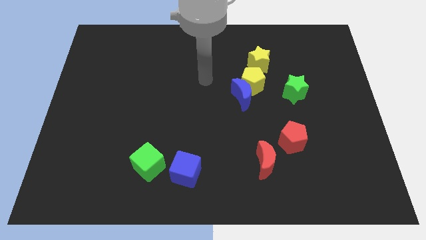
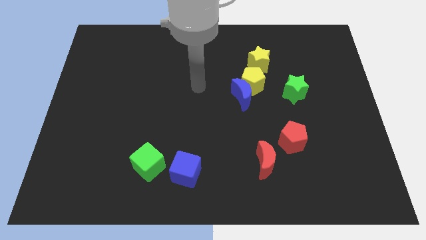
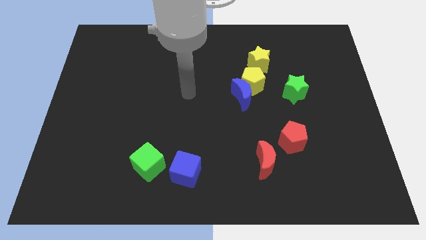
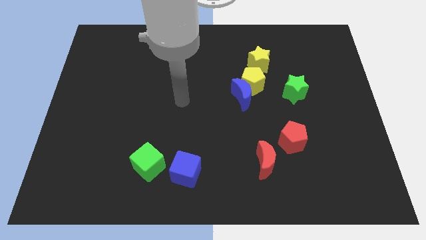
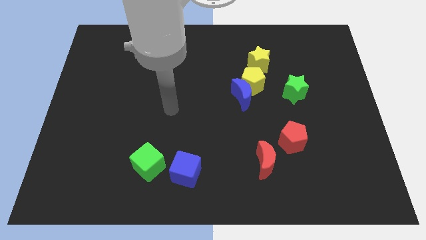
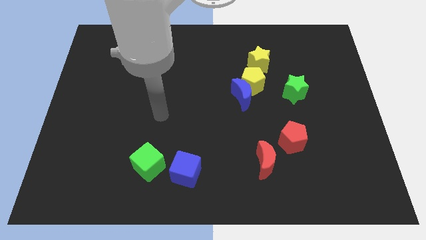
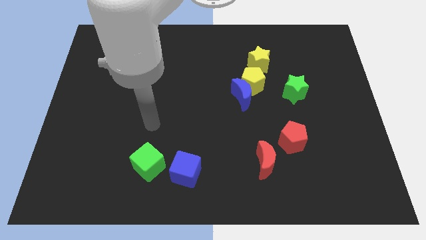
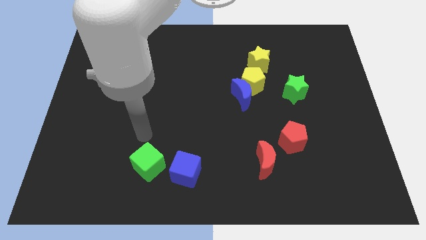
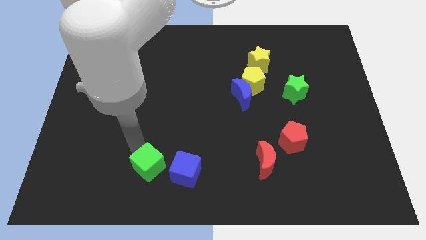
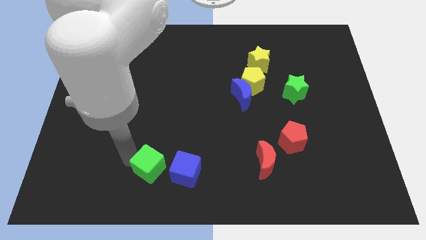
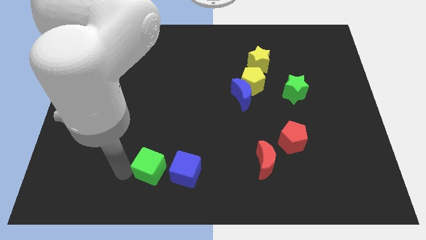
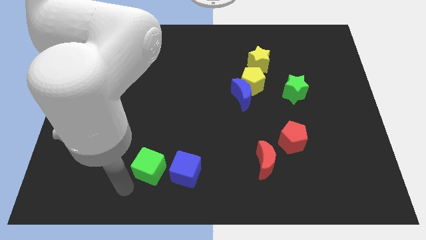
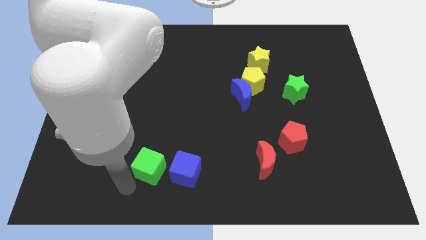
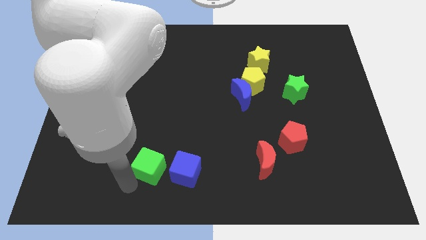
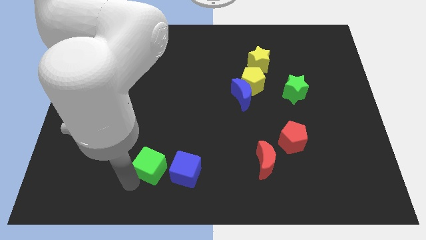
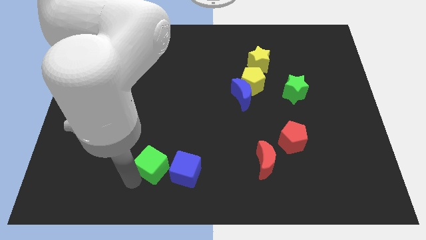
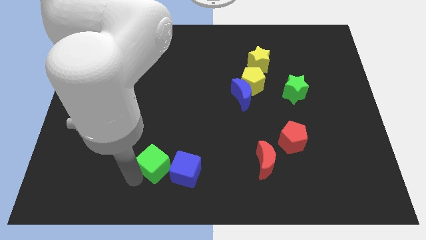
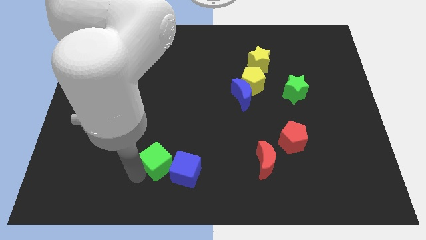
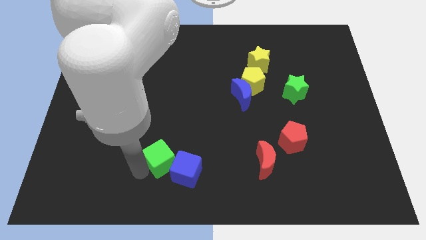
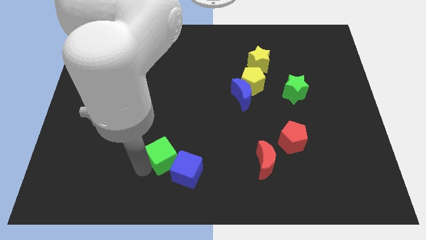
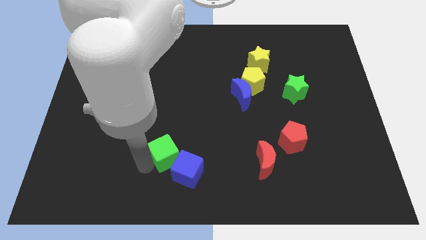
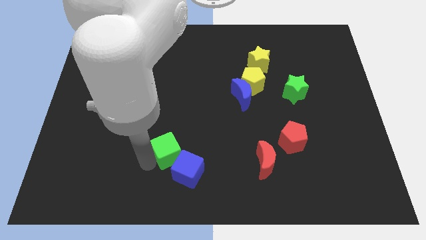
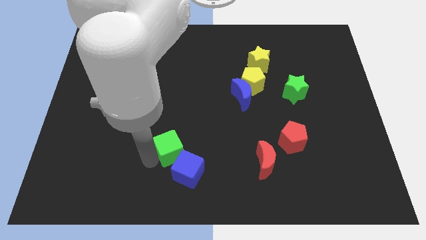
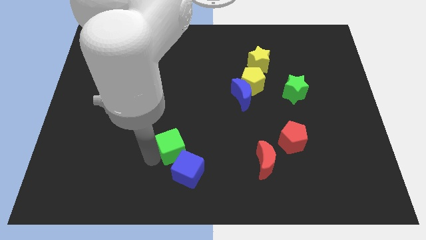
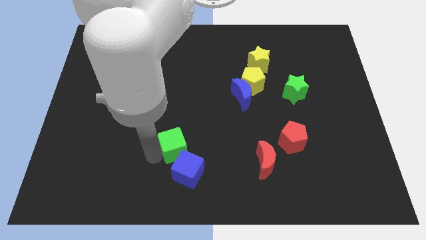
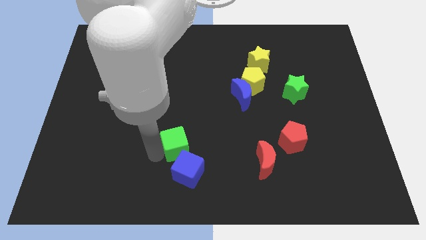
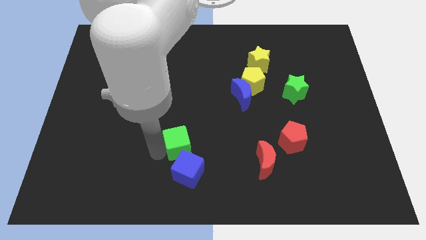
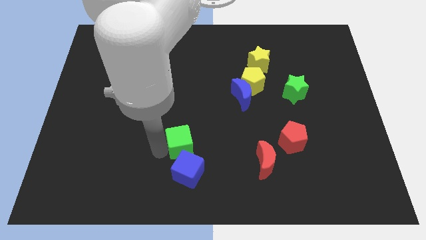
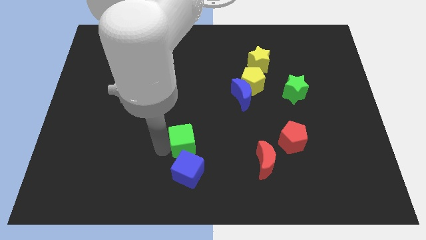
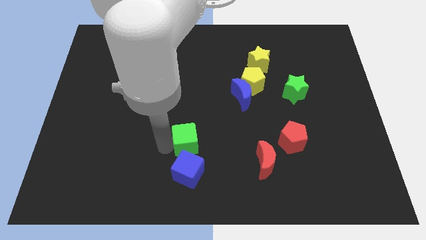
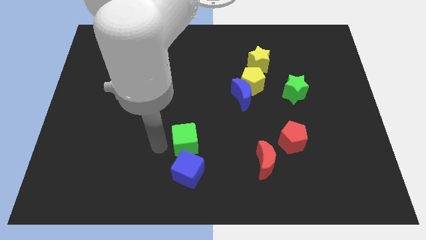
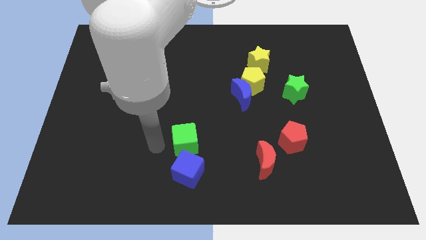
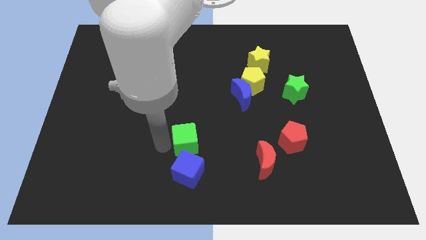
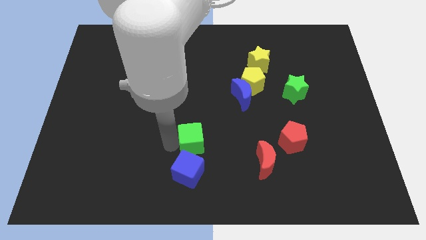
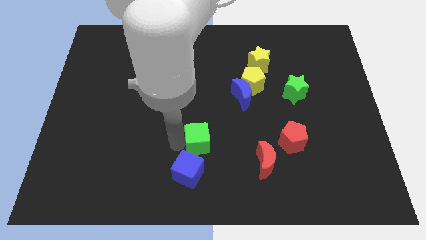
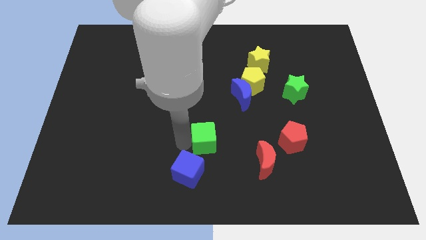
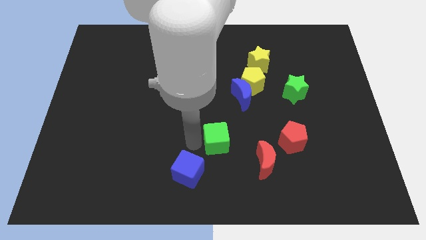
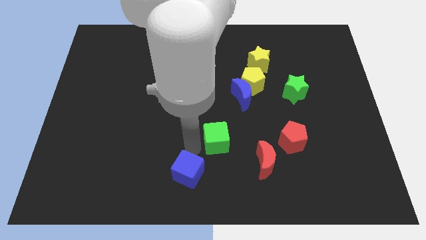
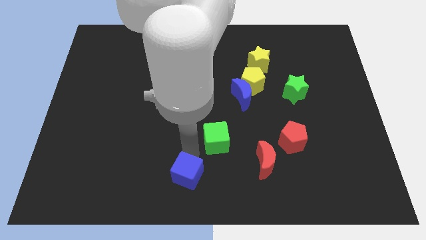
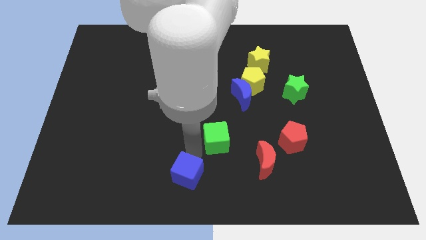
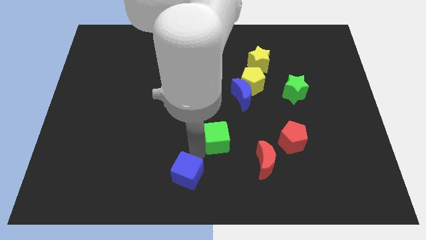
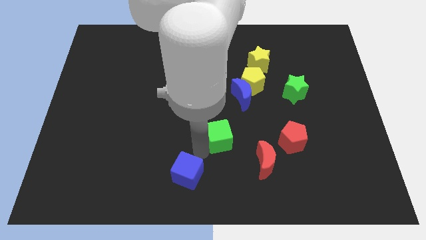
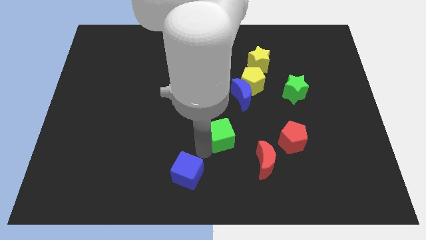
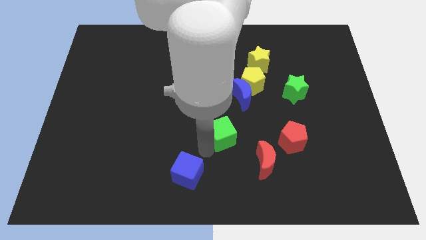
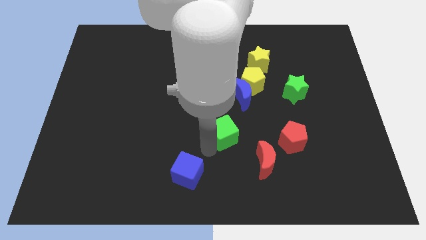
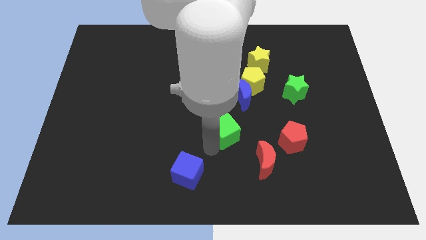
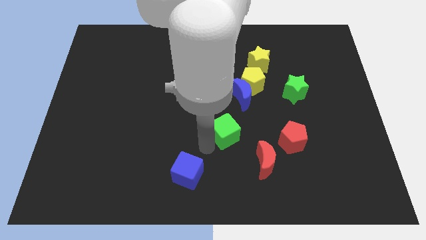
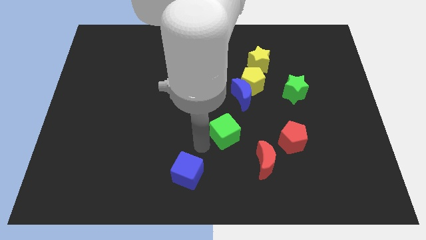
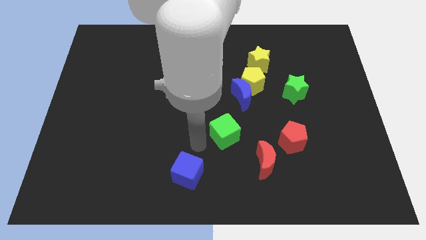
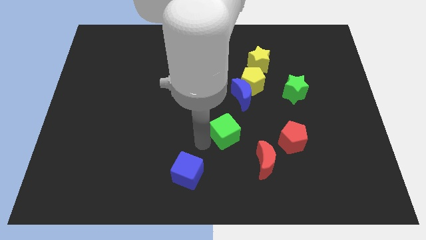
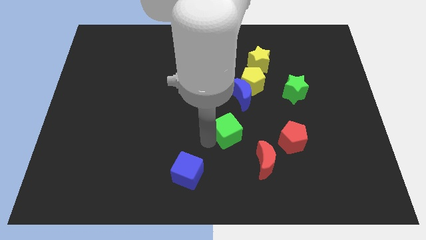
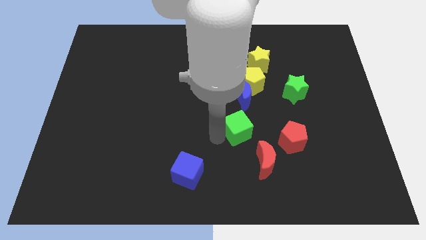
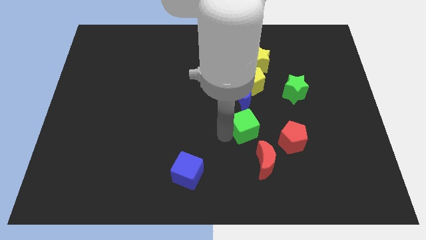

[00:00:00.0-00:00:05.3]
push the green cube to the top of the red moon

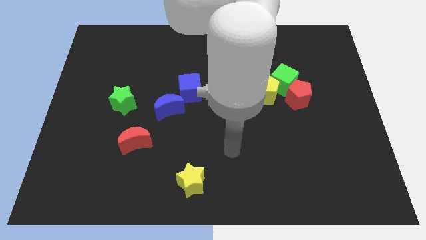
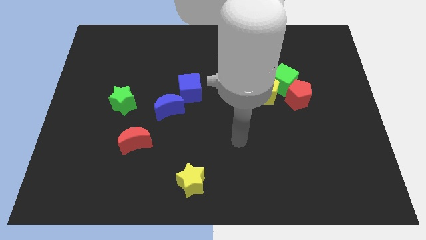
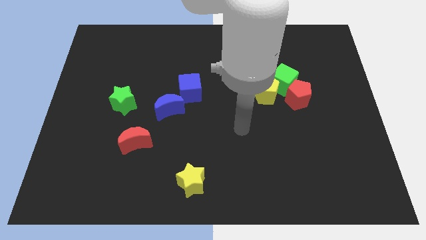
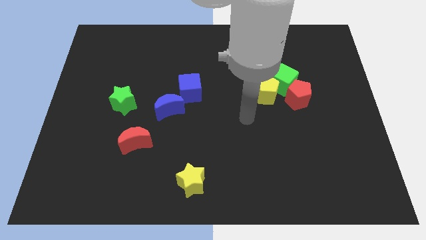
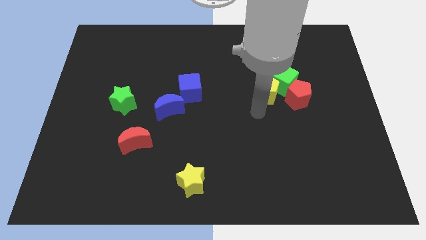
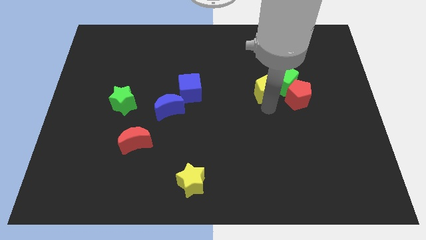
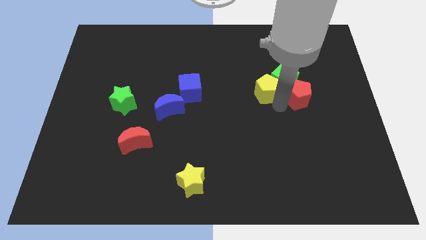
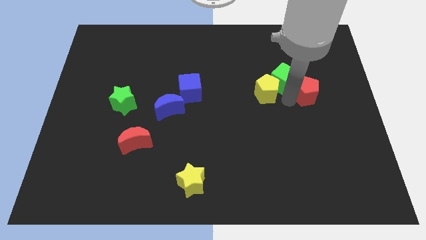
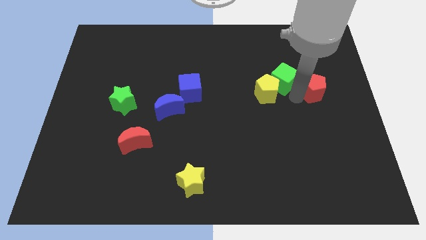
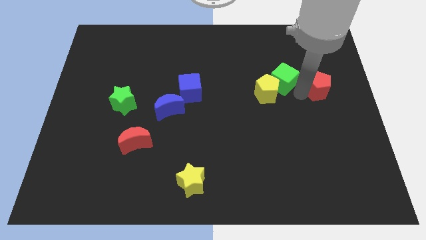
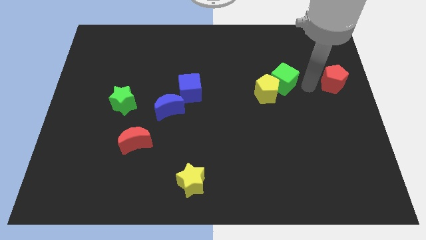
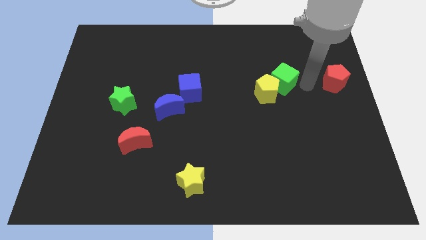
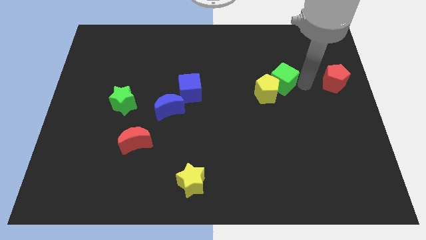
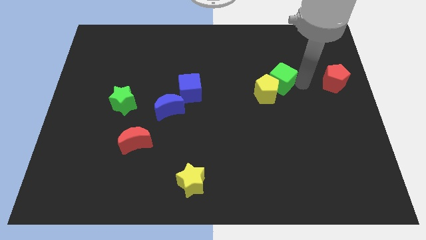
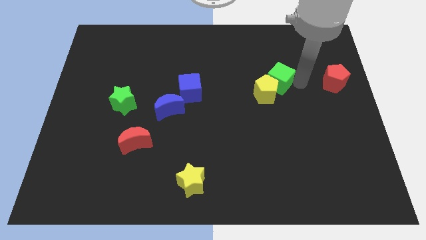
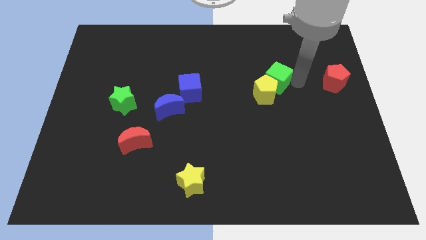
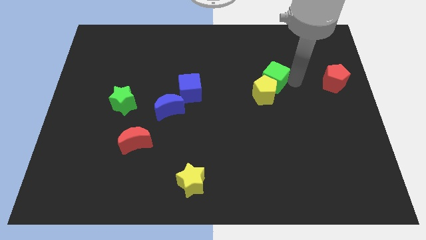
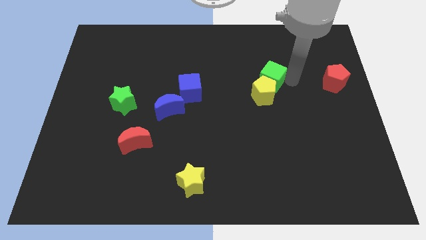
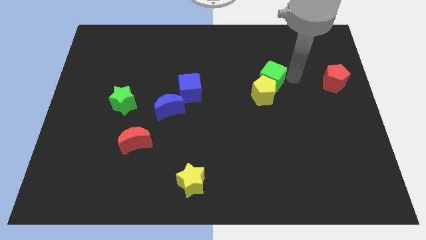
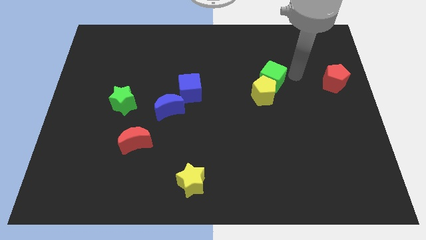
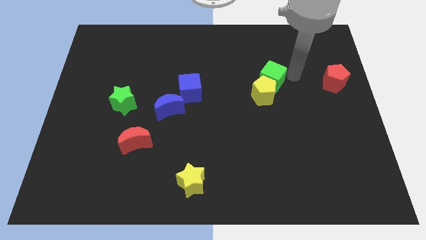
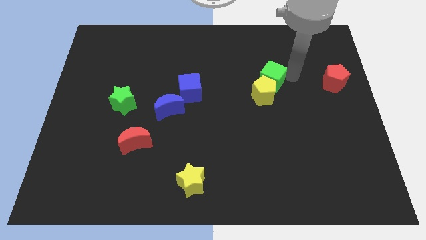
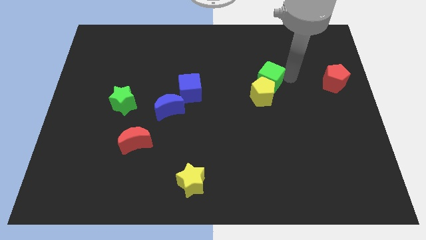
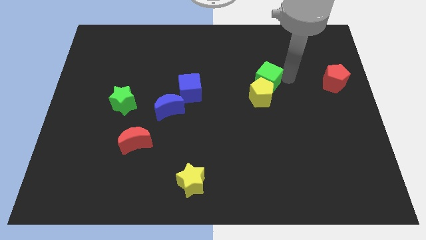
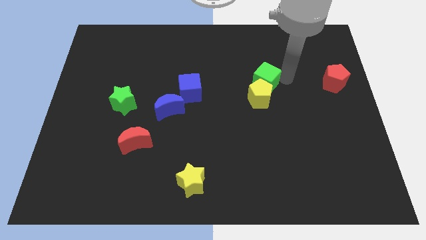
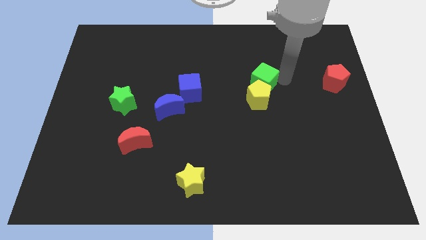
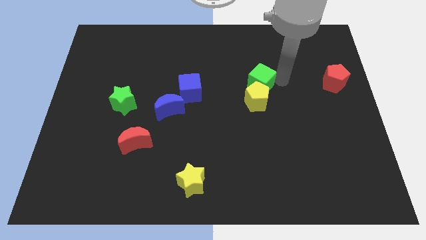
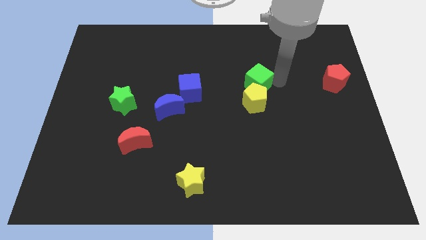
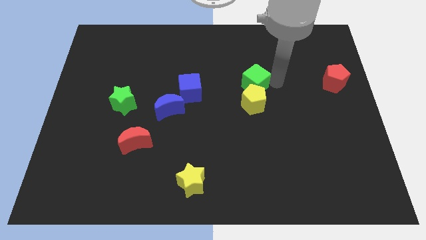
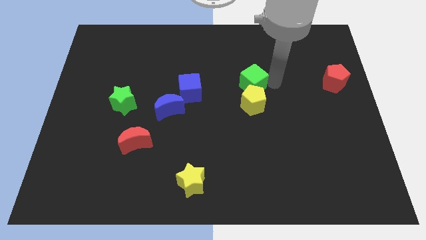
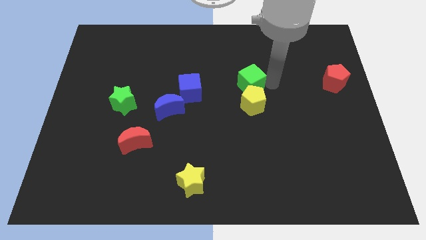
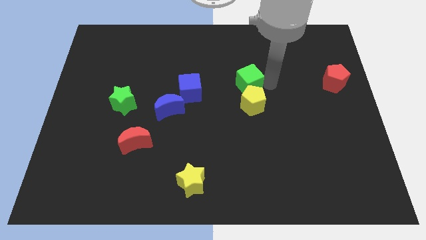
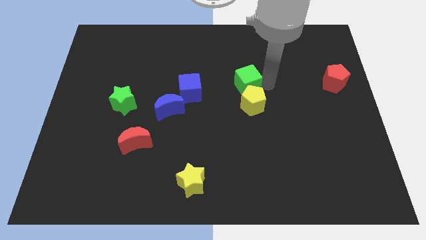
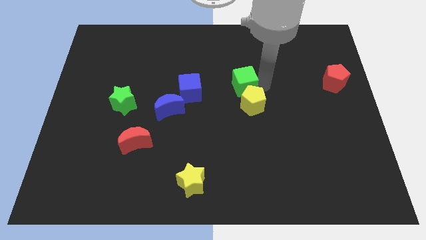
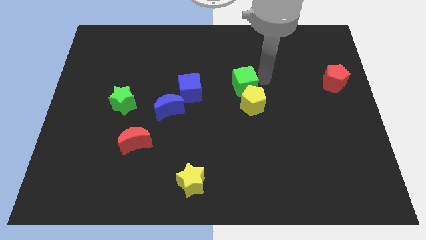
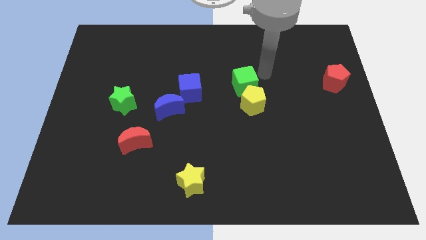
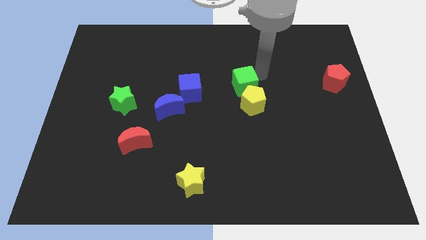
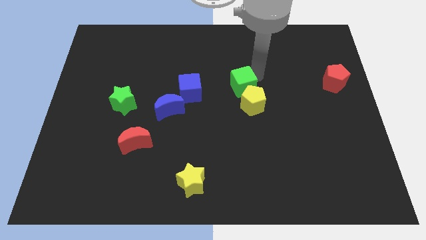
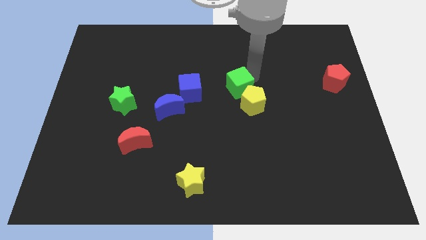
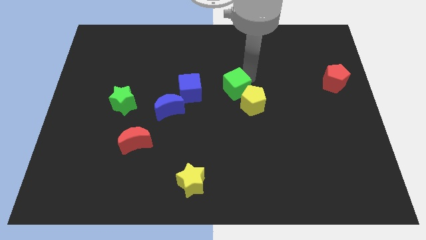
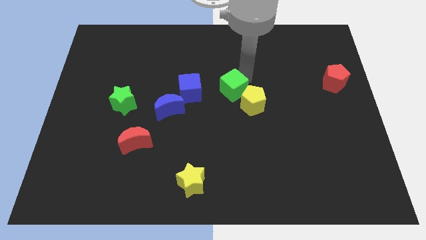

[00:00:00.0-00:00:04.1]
put the green cube to the left side of the yellow pentagon
